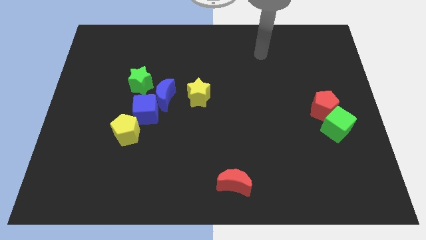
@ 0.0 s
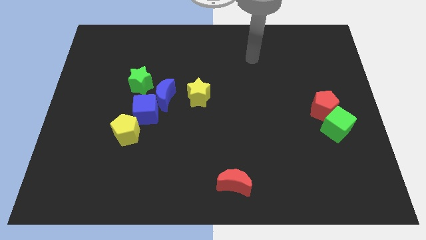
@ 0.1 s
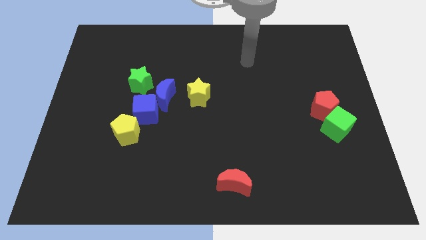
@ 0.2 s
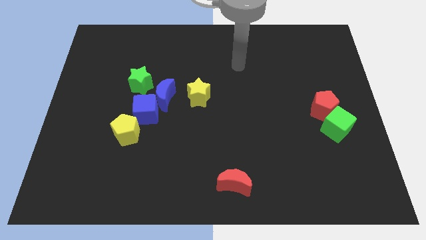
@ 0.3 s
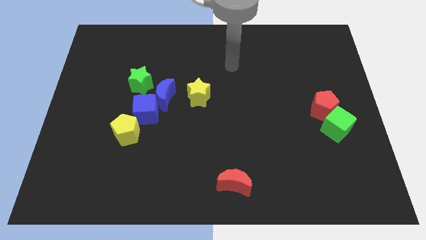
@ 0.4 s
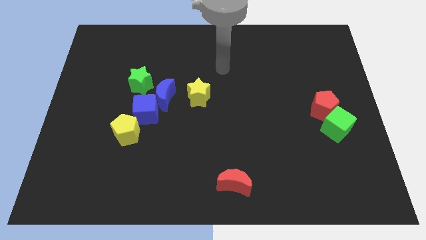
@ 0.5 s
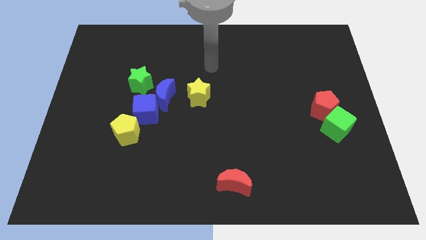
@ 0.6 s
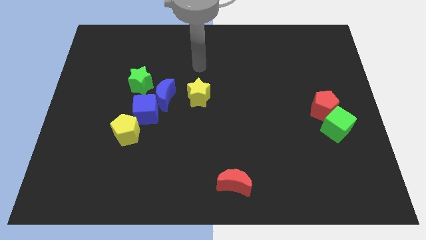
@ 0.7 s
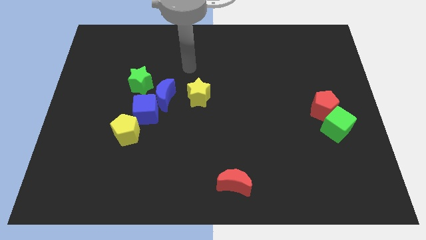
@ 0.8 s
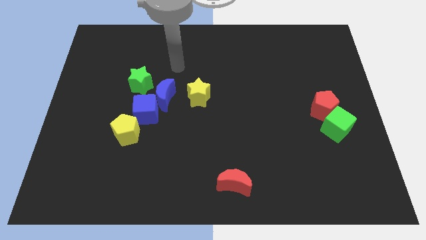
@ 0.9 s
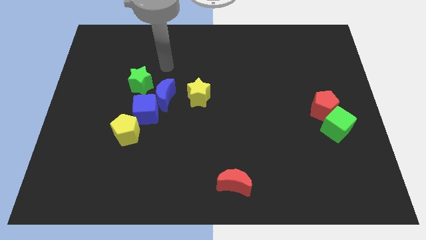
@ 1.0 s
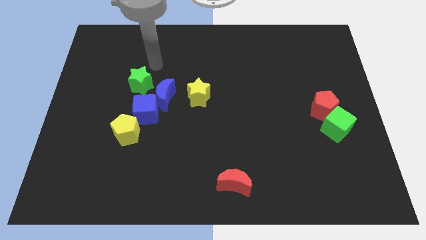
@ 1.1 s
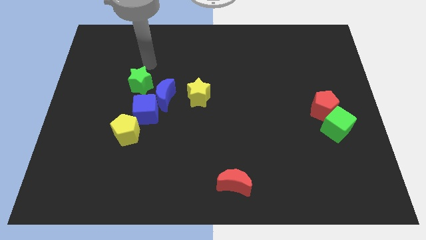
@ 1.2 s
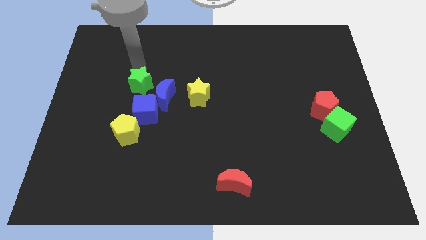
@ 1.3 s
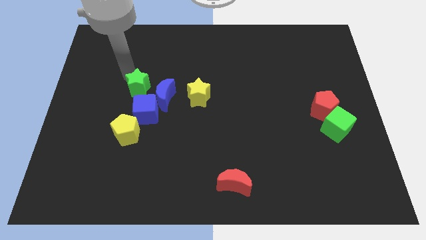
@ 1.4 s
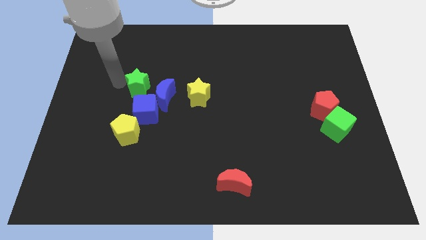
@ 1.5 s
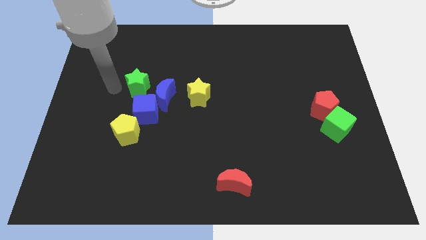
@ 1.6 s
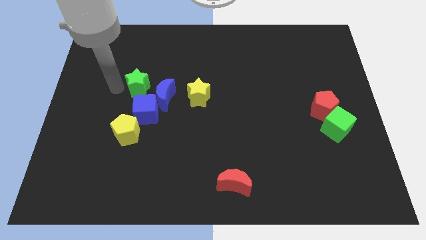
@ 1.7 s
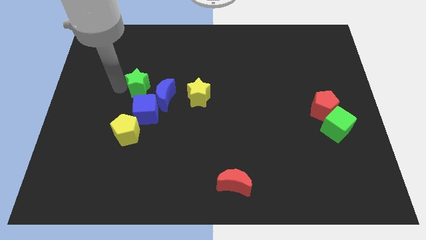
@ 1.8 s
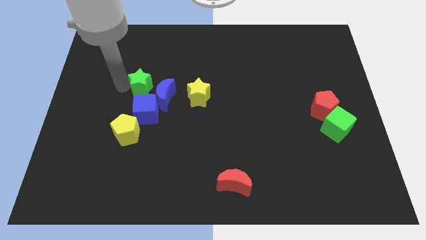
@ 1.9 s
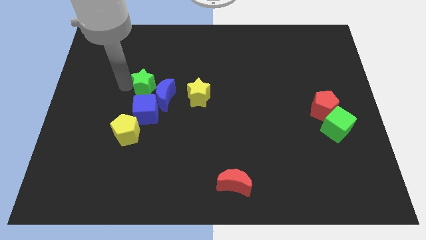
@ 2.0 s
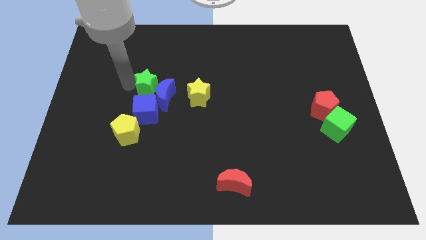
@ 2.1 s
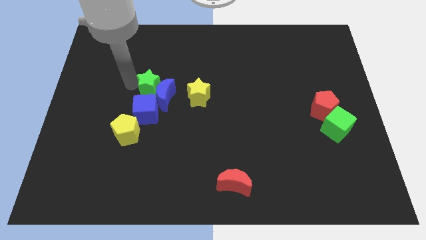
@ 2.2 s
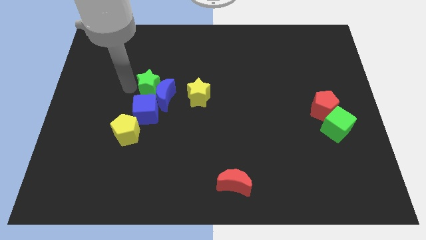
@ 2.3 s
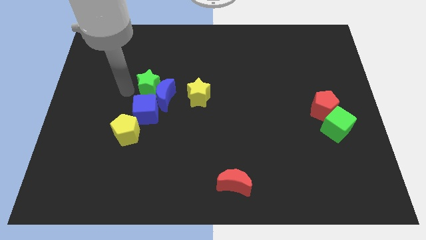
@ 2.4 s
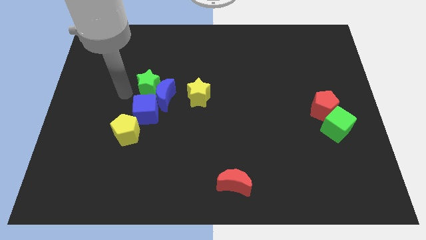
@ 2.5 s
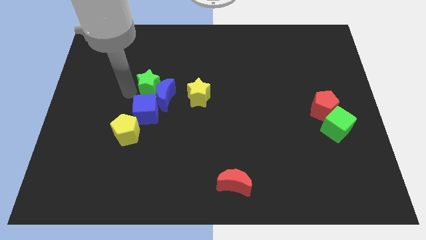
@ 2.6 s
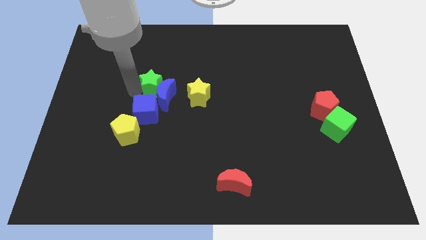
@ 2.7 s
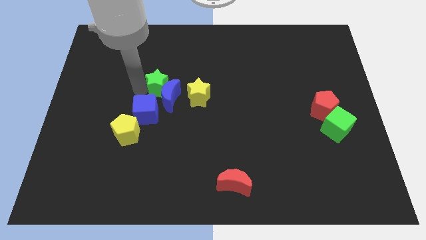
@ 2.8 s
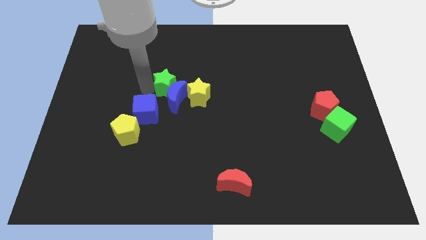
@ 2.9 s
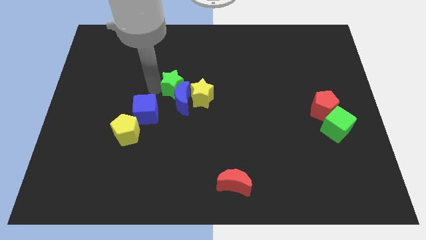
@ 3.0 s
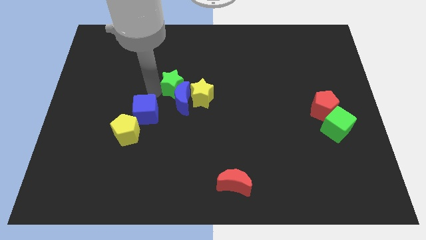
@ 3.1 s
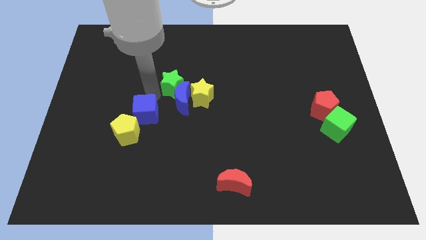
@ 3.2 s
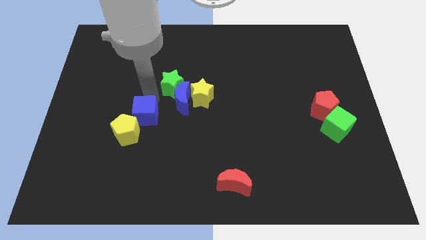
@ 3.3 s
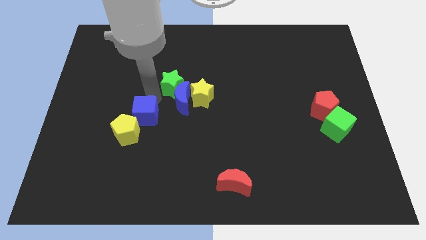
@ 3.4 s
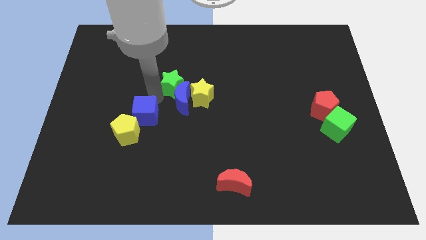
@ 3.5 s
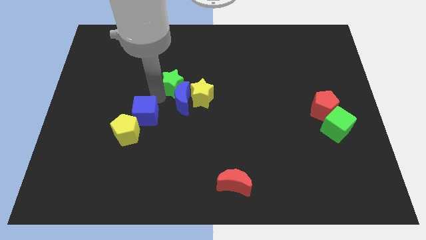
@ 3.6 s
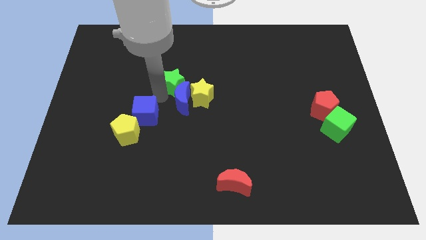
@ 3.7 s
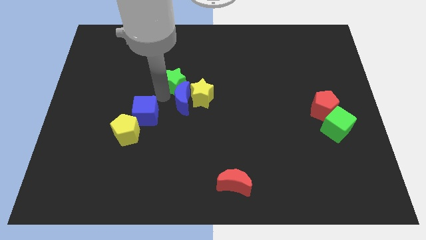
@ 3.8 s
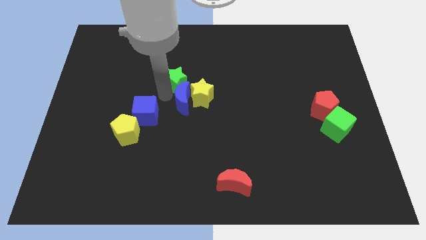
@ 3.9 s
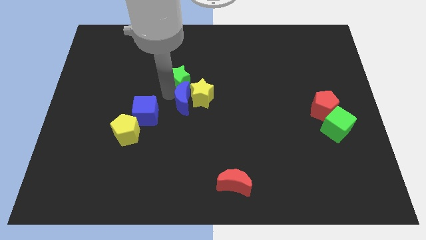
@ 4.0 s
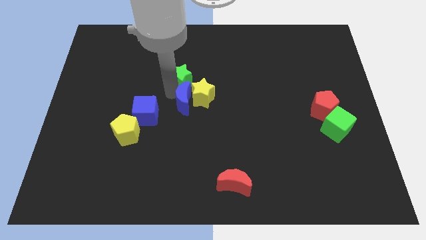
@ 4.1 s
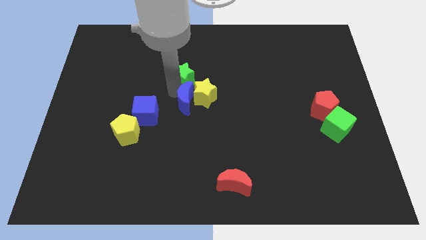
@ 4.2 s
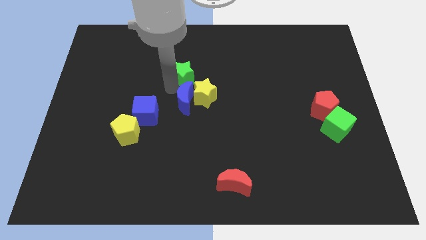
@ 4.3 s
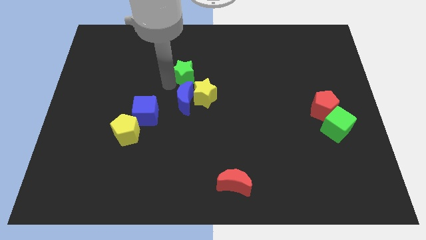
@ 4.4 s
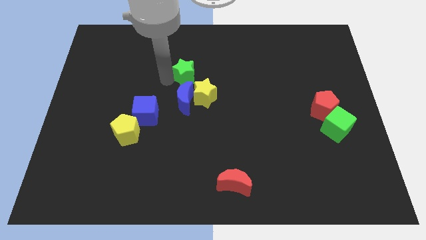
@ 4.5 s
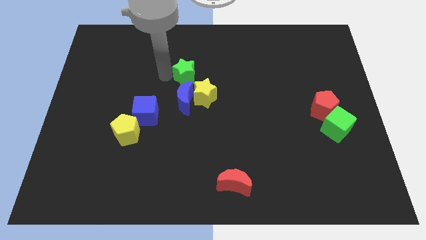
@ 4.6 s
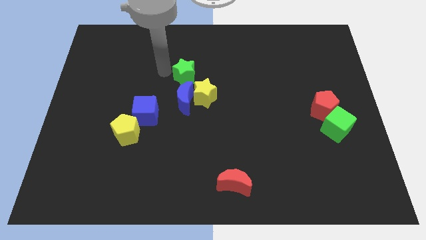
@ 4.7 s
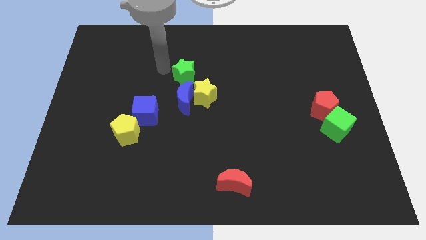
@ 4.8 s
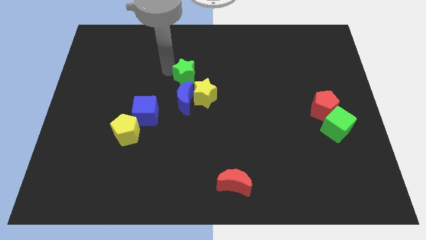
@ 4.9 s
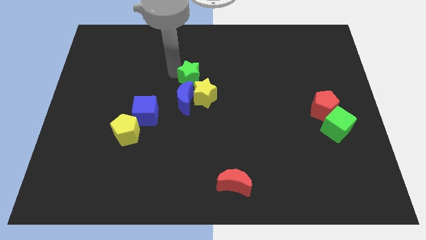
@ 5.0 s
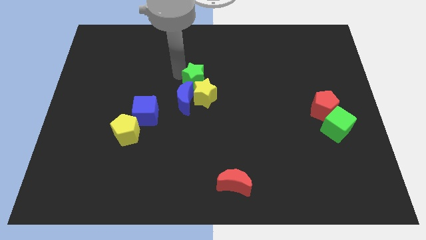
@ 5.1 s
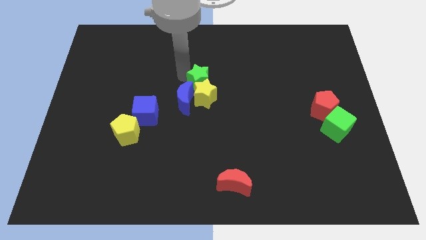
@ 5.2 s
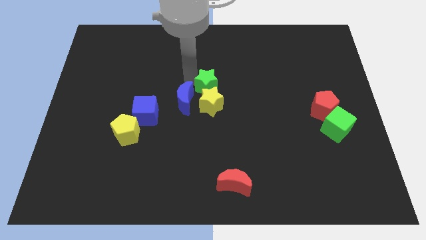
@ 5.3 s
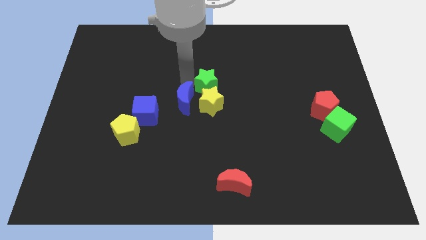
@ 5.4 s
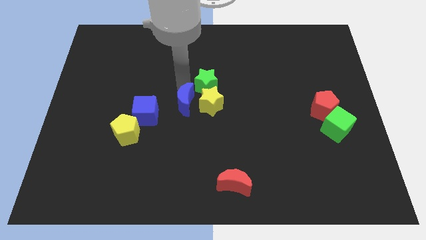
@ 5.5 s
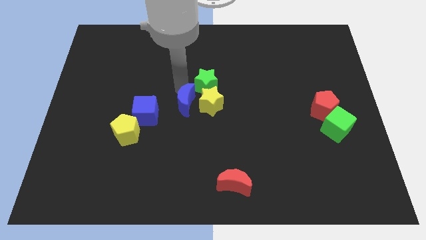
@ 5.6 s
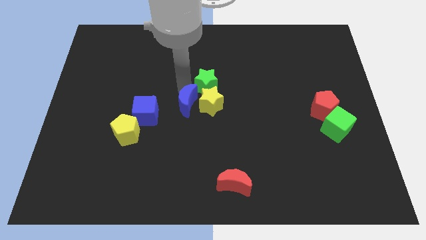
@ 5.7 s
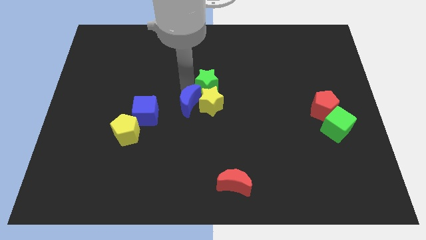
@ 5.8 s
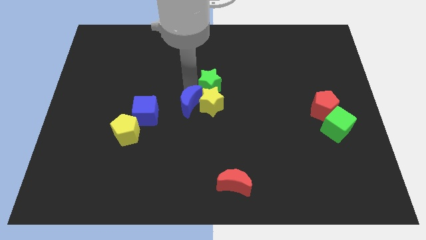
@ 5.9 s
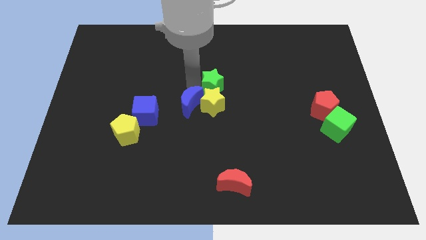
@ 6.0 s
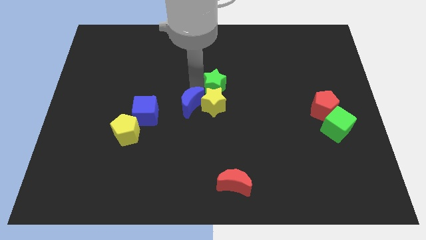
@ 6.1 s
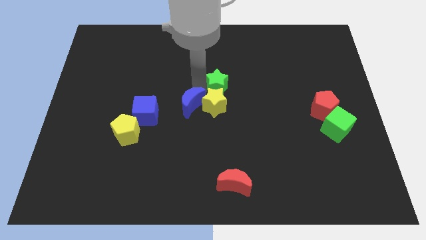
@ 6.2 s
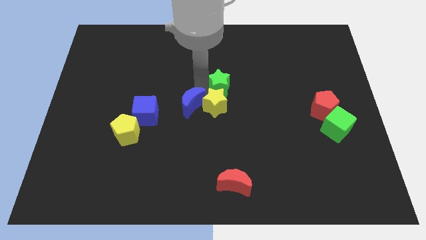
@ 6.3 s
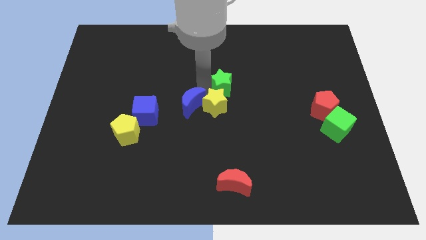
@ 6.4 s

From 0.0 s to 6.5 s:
push the green star right

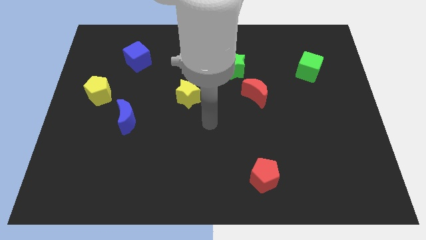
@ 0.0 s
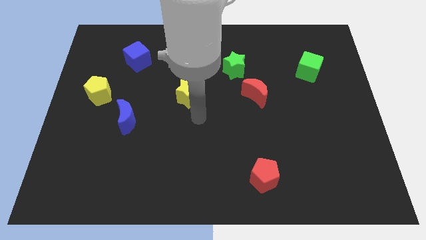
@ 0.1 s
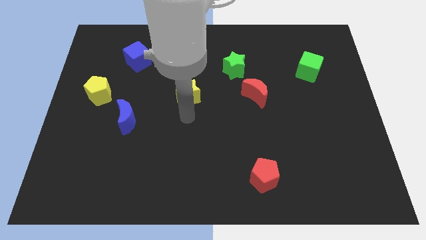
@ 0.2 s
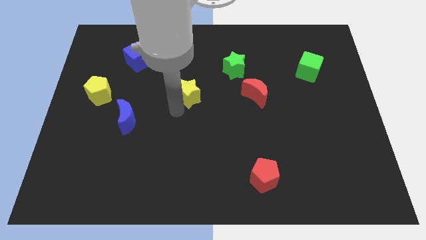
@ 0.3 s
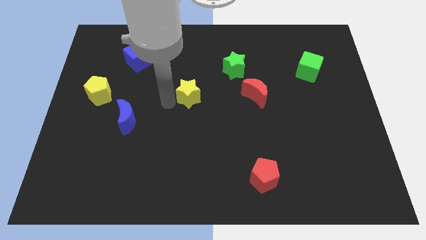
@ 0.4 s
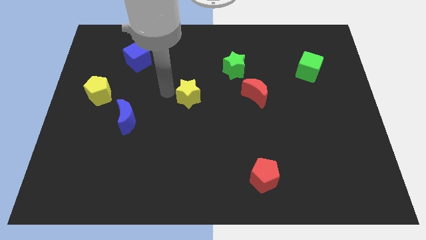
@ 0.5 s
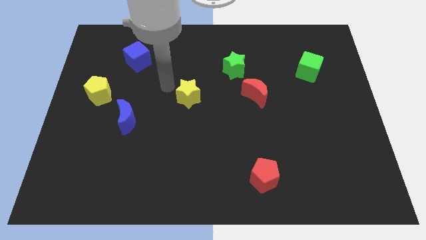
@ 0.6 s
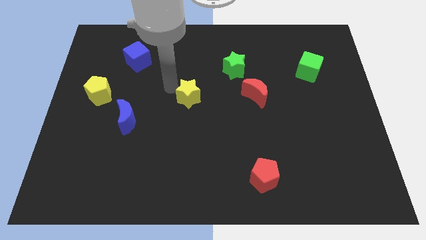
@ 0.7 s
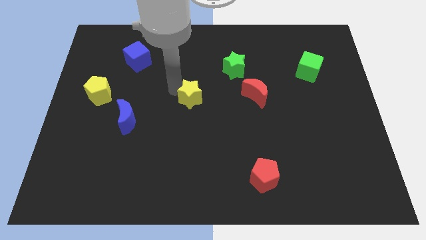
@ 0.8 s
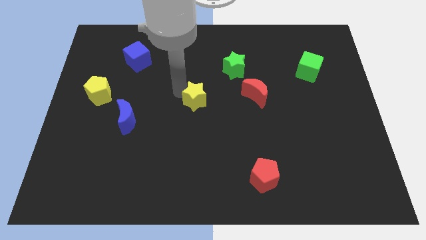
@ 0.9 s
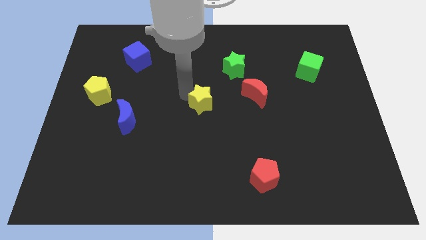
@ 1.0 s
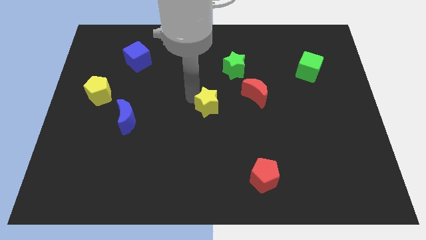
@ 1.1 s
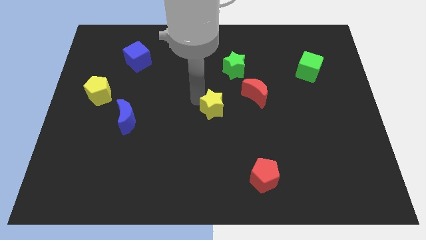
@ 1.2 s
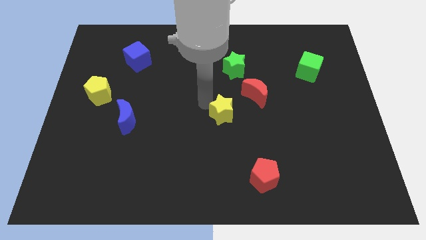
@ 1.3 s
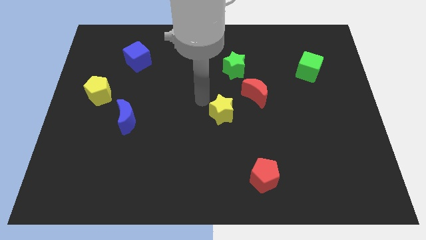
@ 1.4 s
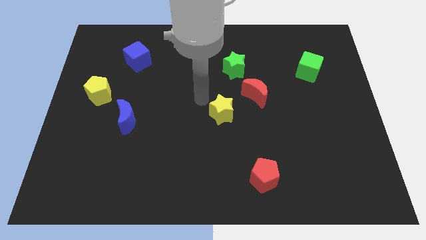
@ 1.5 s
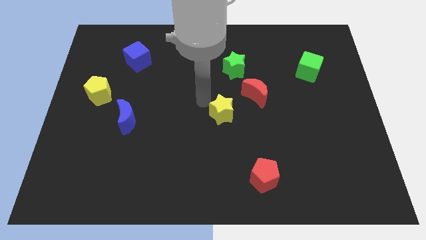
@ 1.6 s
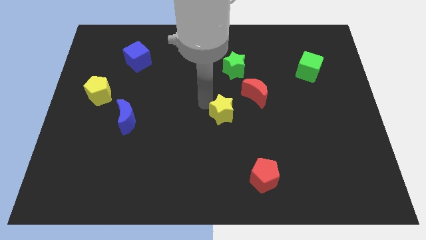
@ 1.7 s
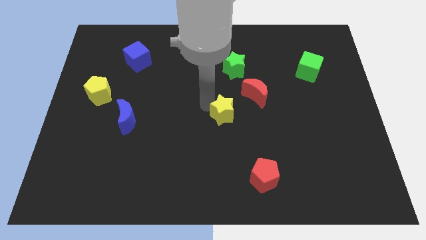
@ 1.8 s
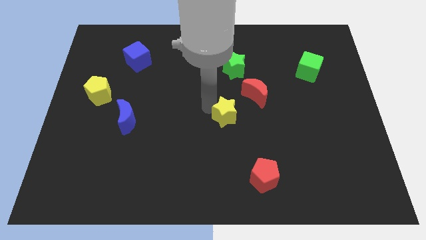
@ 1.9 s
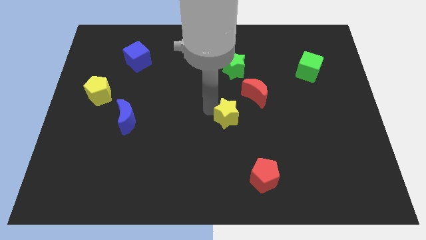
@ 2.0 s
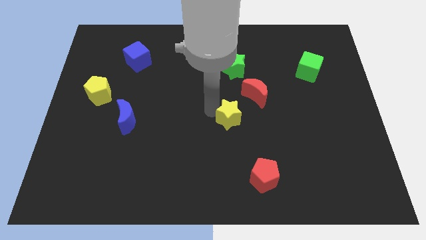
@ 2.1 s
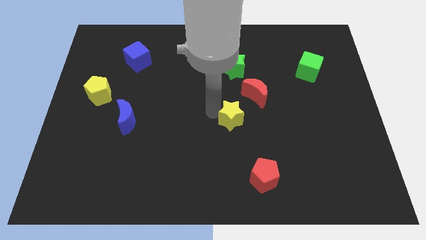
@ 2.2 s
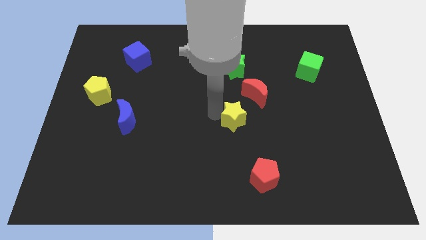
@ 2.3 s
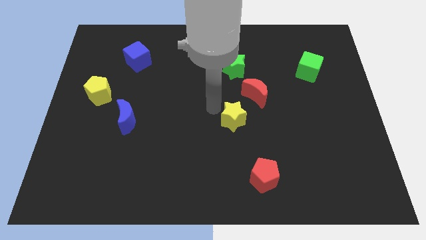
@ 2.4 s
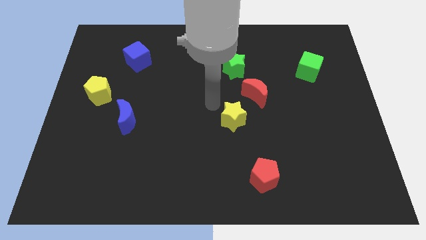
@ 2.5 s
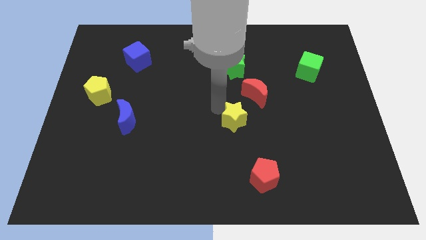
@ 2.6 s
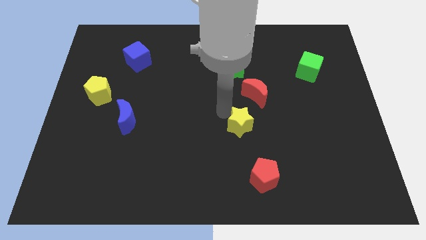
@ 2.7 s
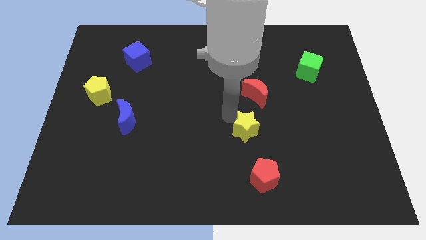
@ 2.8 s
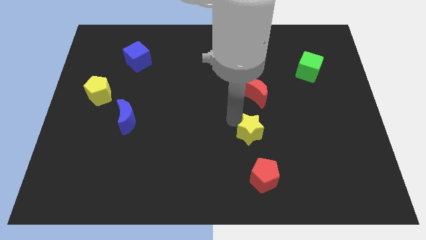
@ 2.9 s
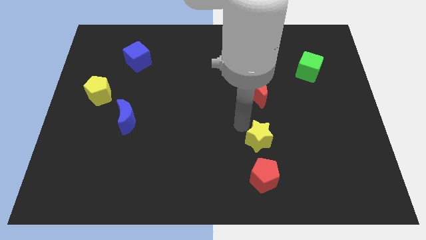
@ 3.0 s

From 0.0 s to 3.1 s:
move the yellow star downwards and to the right
